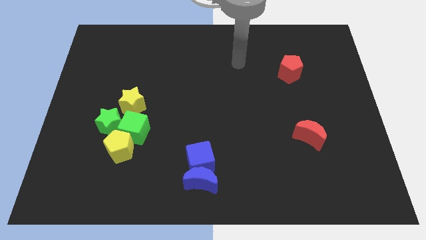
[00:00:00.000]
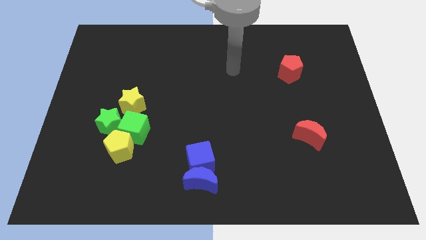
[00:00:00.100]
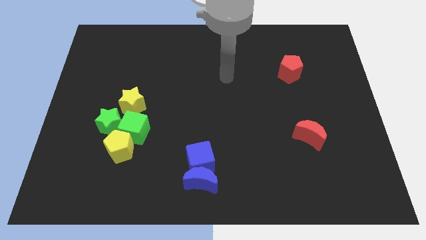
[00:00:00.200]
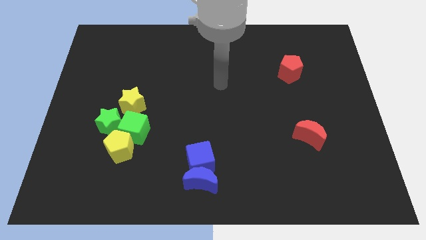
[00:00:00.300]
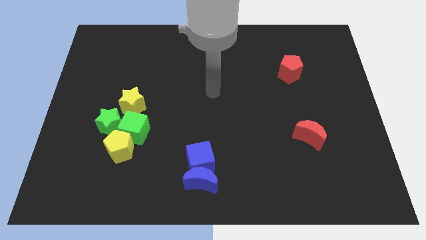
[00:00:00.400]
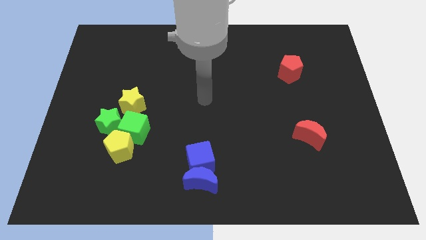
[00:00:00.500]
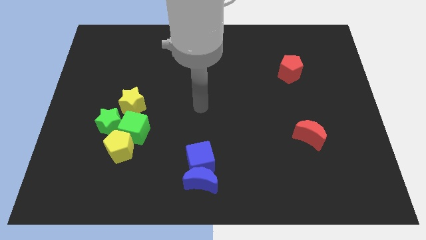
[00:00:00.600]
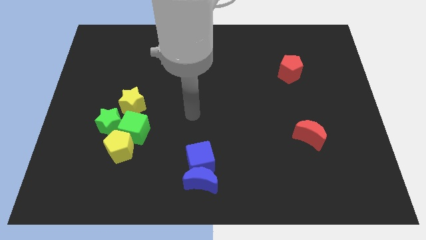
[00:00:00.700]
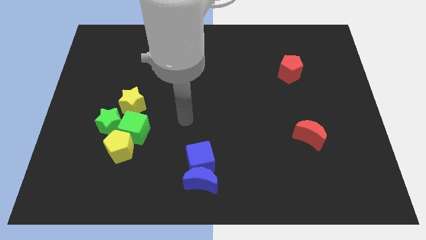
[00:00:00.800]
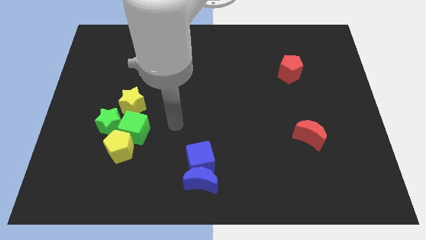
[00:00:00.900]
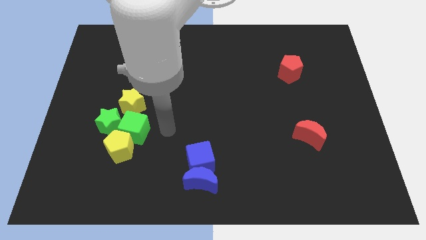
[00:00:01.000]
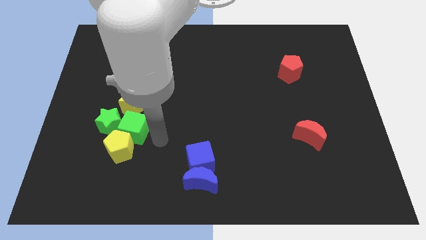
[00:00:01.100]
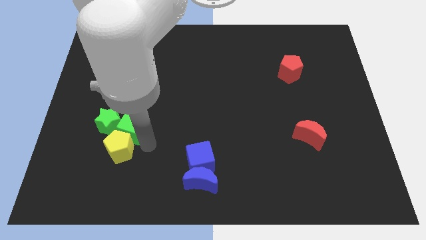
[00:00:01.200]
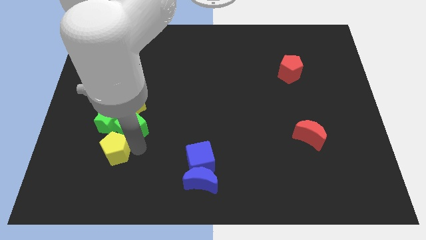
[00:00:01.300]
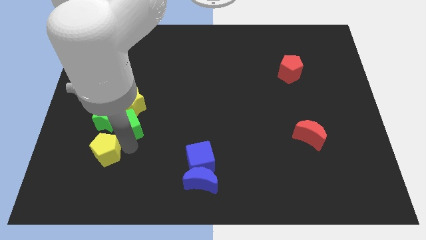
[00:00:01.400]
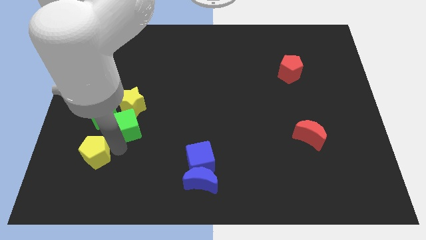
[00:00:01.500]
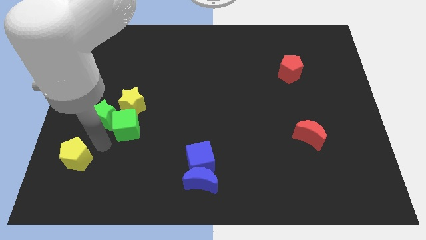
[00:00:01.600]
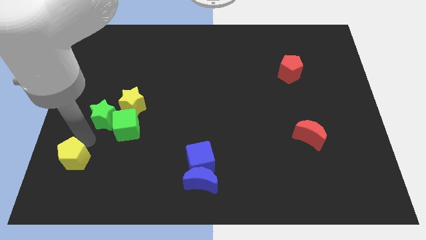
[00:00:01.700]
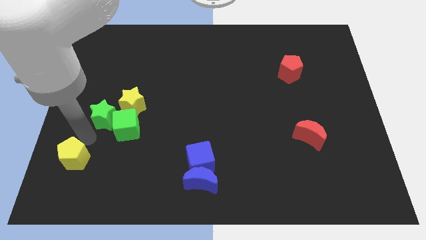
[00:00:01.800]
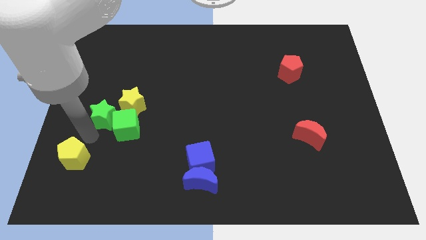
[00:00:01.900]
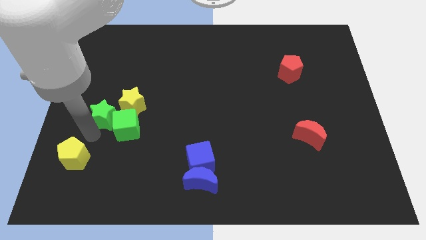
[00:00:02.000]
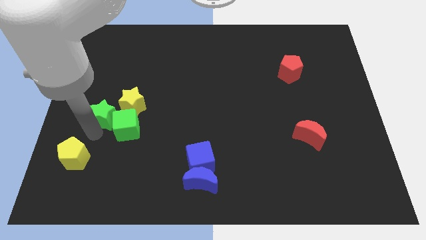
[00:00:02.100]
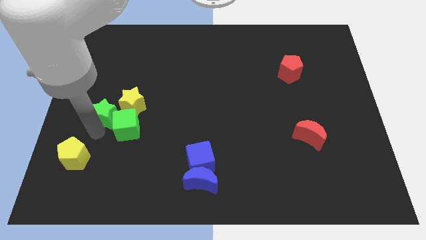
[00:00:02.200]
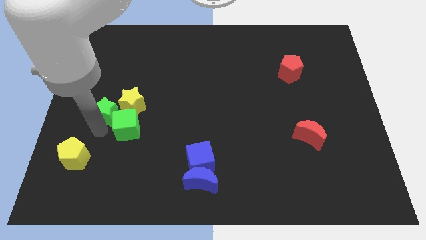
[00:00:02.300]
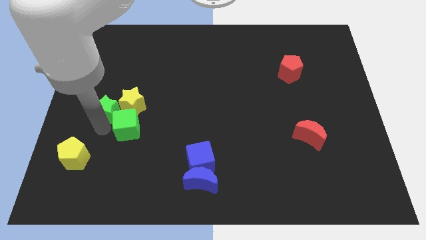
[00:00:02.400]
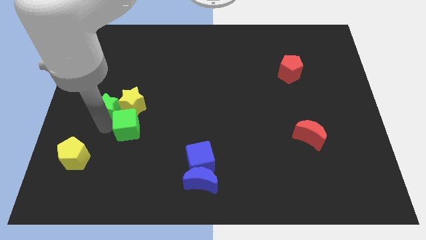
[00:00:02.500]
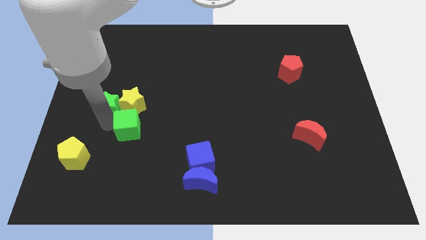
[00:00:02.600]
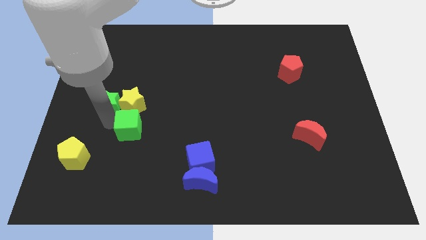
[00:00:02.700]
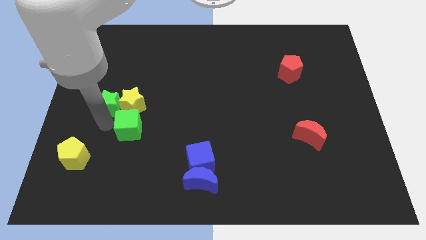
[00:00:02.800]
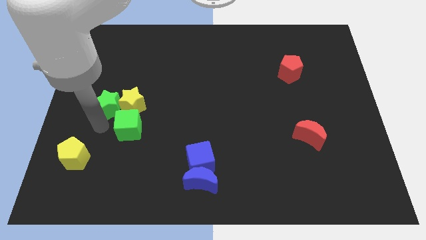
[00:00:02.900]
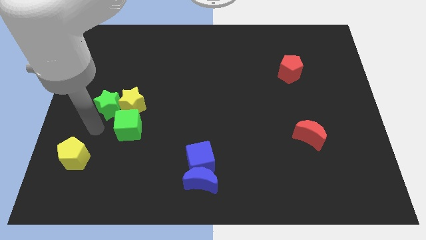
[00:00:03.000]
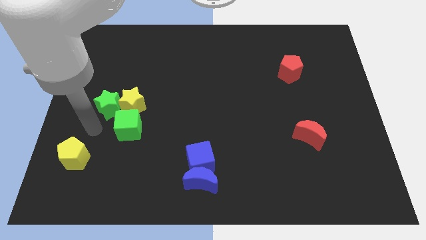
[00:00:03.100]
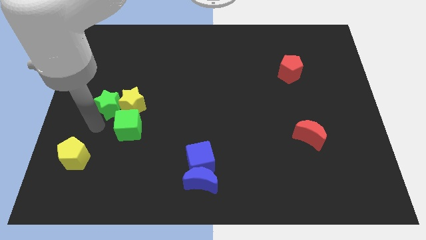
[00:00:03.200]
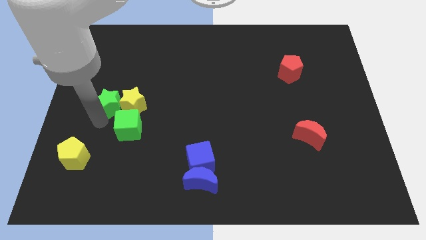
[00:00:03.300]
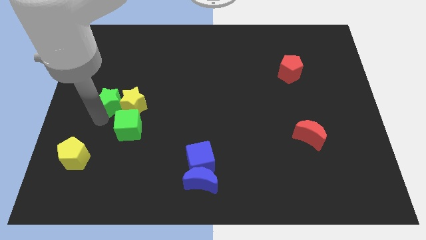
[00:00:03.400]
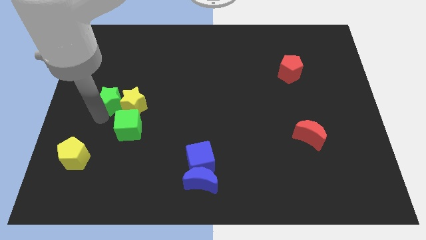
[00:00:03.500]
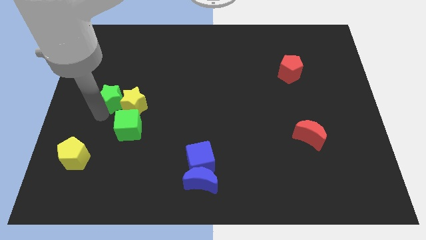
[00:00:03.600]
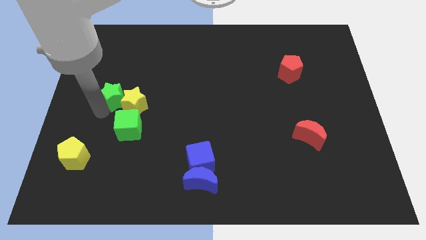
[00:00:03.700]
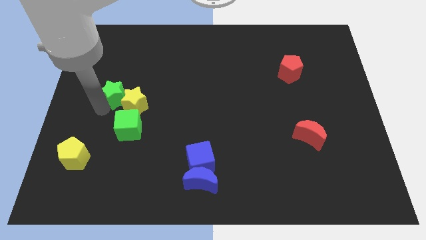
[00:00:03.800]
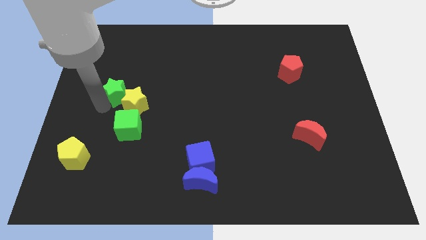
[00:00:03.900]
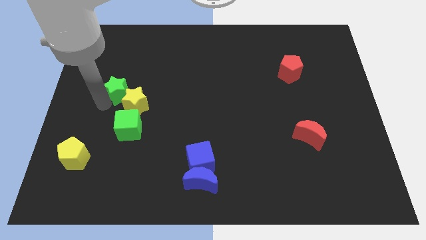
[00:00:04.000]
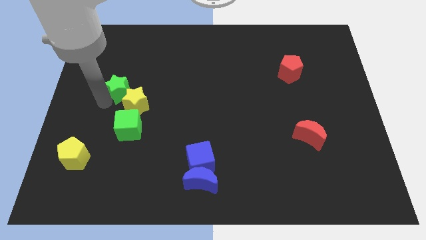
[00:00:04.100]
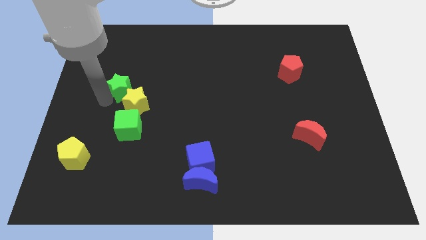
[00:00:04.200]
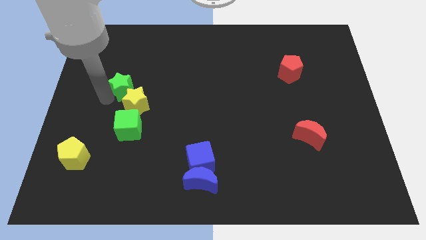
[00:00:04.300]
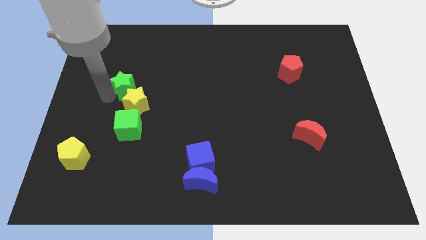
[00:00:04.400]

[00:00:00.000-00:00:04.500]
push the green star somewhat up and right

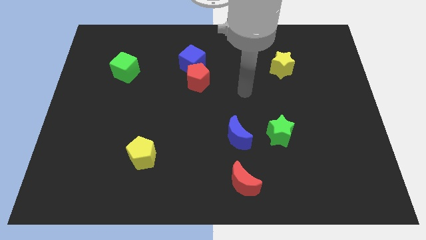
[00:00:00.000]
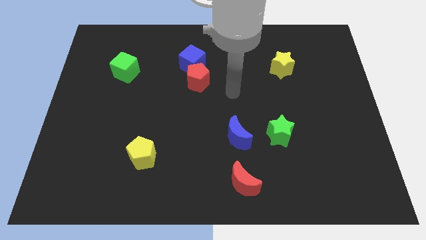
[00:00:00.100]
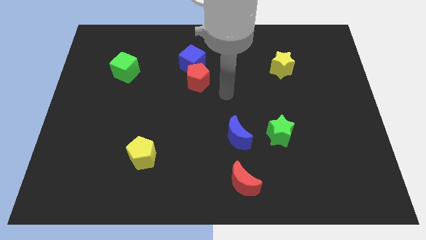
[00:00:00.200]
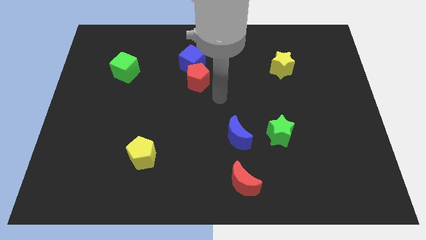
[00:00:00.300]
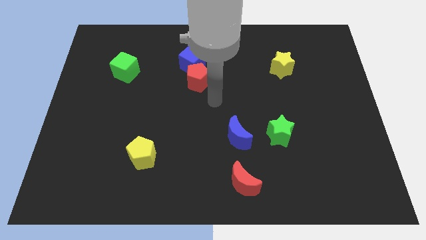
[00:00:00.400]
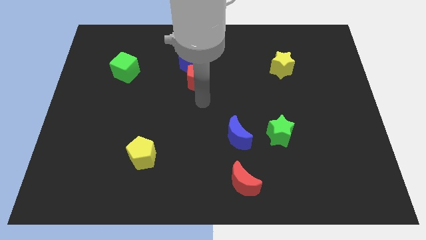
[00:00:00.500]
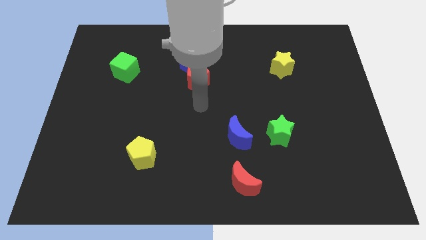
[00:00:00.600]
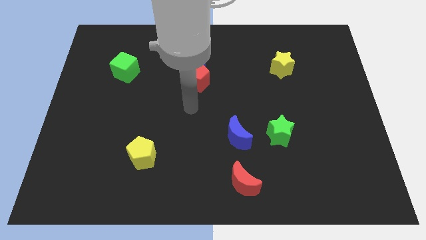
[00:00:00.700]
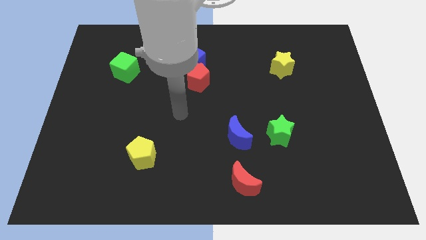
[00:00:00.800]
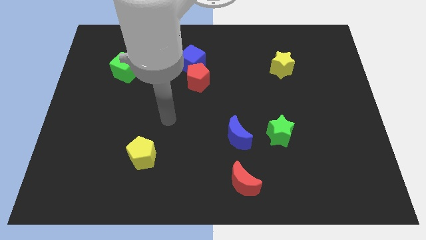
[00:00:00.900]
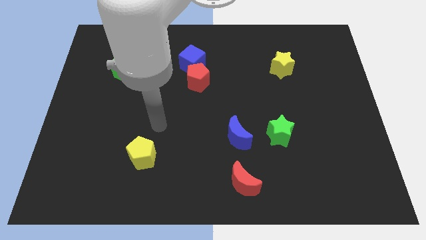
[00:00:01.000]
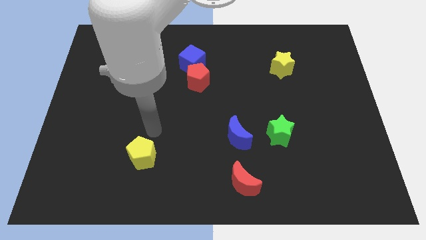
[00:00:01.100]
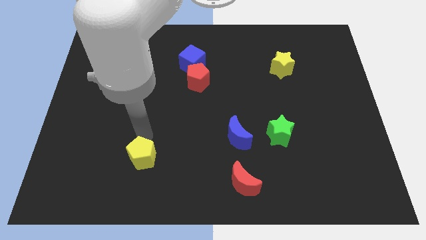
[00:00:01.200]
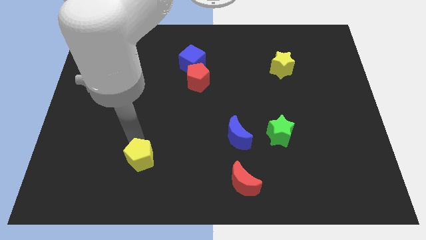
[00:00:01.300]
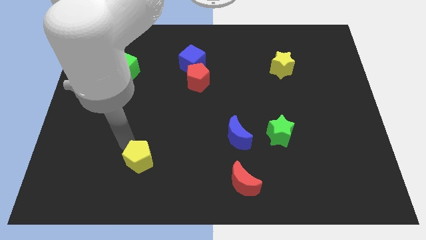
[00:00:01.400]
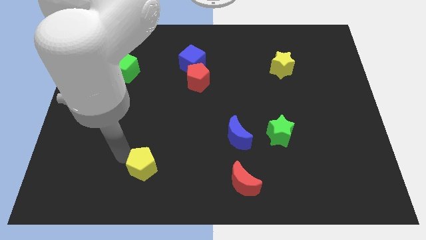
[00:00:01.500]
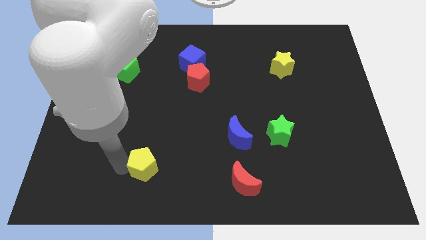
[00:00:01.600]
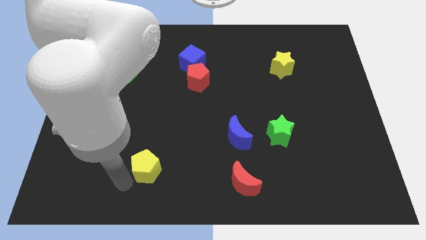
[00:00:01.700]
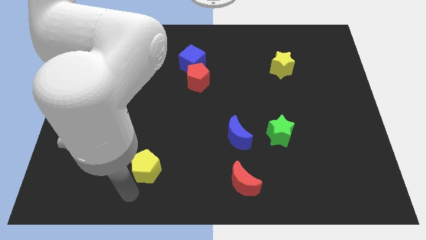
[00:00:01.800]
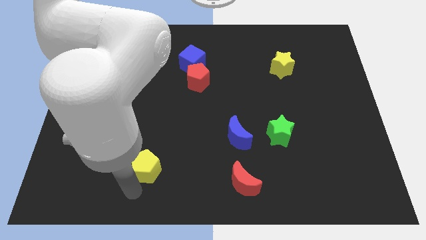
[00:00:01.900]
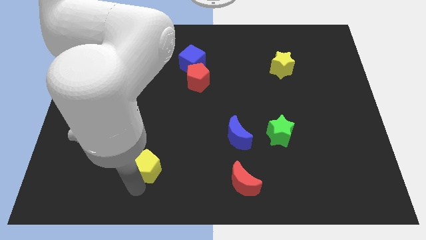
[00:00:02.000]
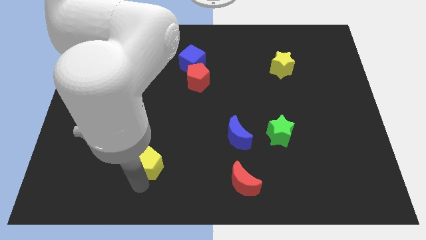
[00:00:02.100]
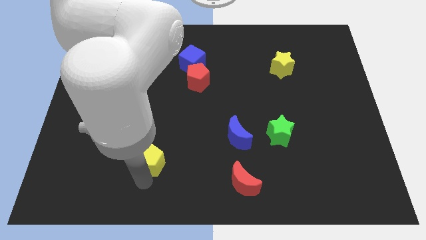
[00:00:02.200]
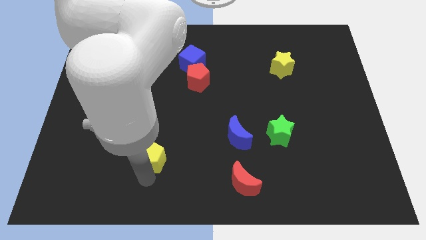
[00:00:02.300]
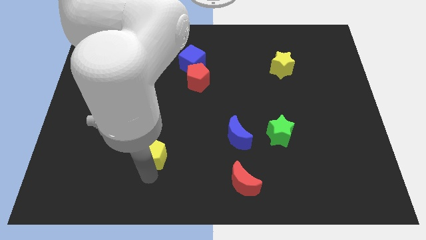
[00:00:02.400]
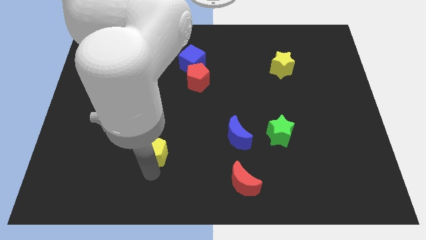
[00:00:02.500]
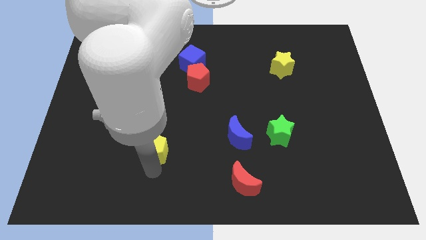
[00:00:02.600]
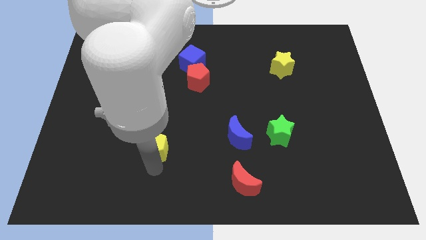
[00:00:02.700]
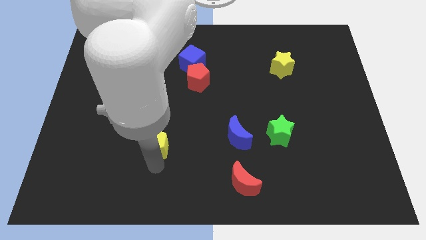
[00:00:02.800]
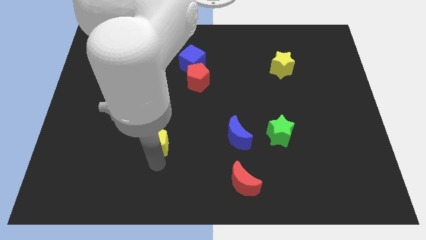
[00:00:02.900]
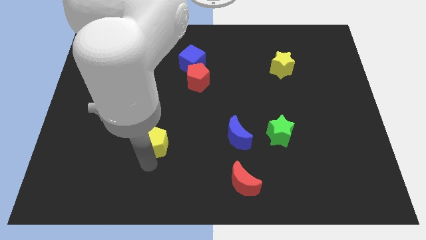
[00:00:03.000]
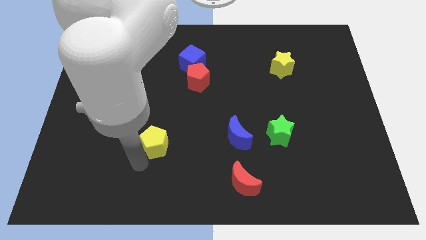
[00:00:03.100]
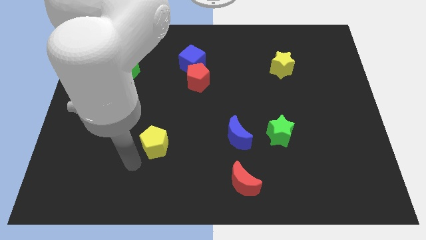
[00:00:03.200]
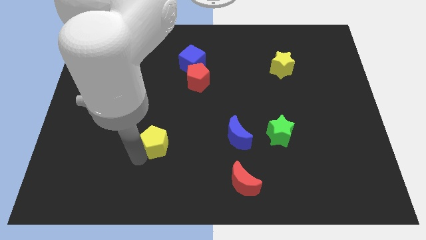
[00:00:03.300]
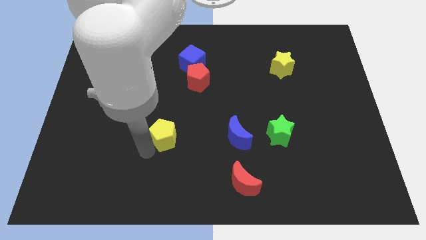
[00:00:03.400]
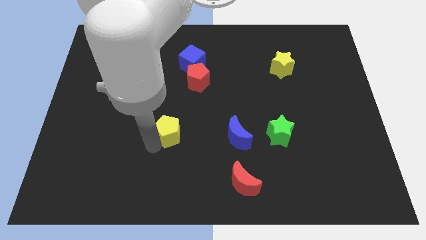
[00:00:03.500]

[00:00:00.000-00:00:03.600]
move the yellow pentagon somewhat upwards and then right
